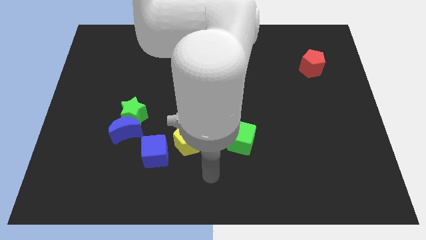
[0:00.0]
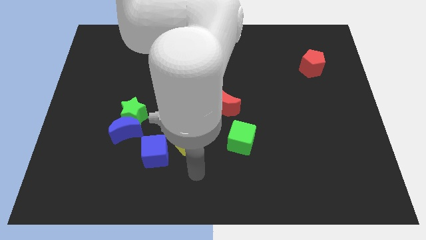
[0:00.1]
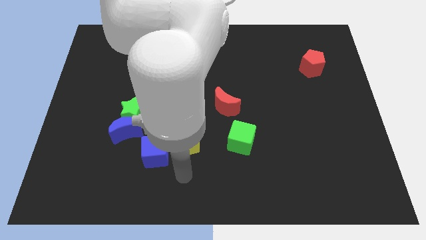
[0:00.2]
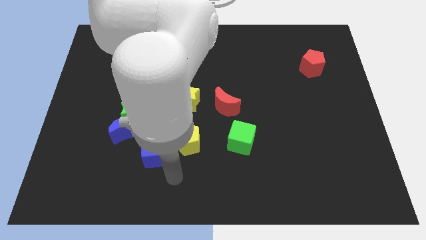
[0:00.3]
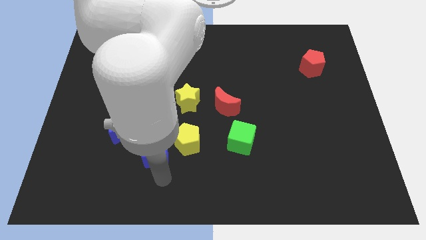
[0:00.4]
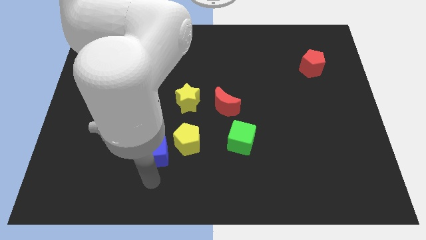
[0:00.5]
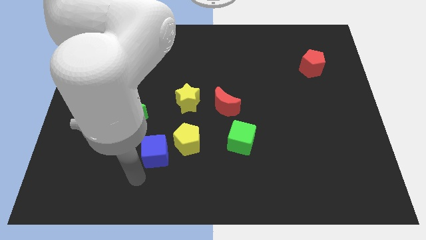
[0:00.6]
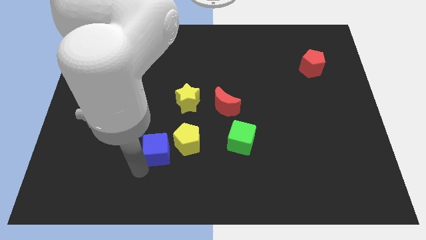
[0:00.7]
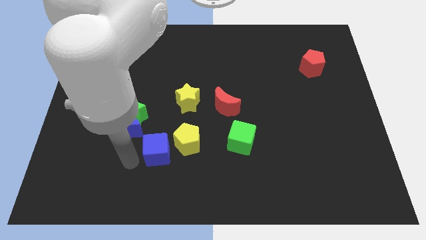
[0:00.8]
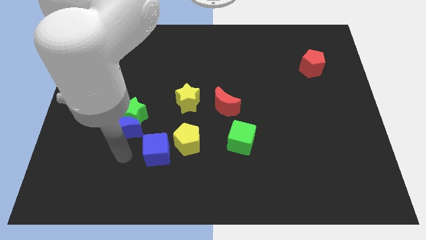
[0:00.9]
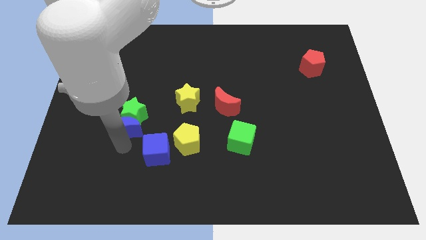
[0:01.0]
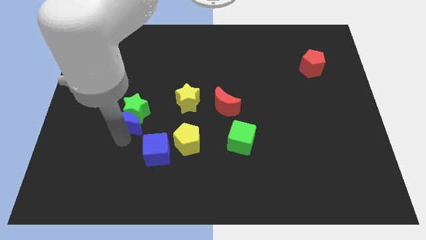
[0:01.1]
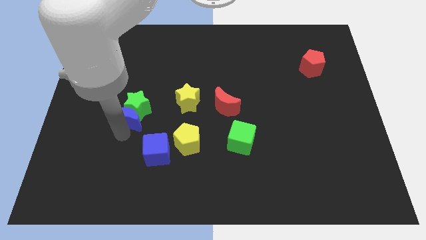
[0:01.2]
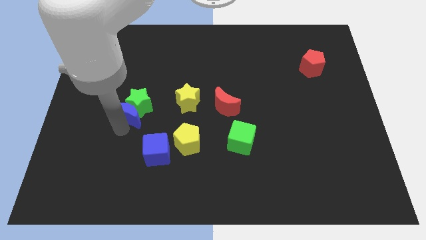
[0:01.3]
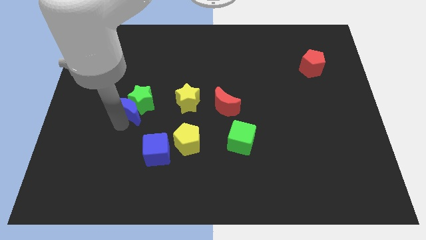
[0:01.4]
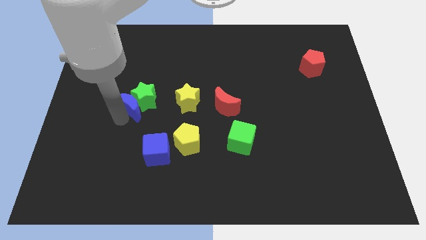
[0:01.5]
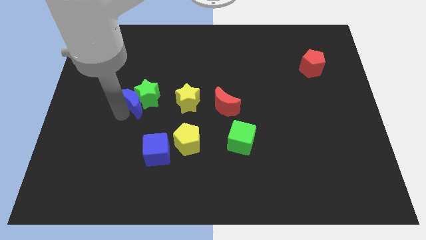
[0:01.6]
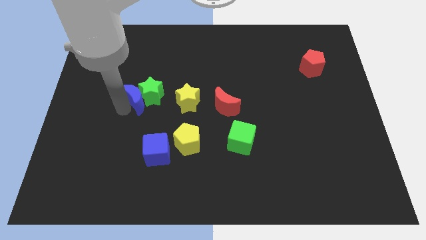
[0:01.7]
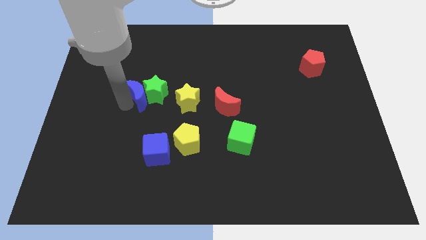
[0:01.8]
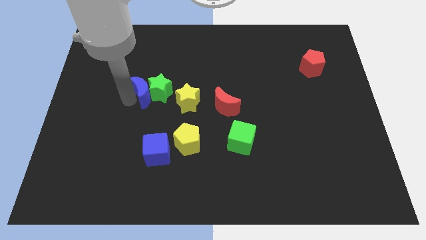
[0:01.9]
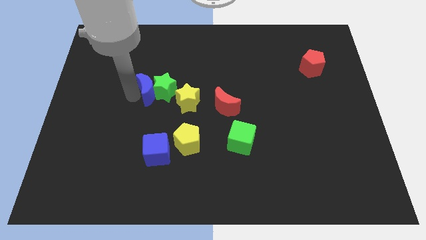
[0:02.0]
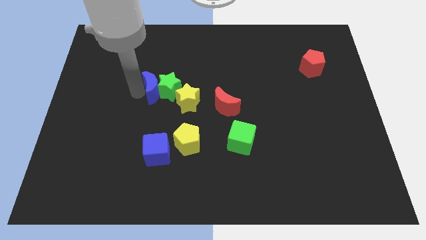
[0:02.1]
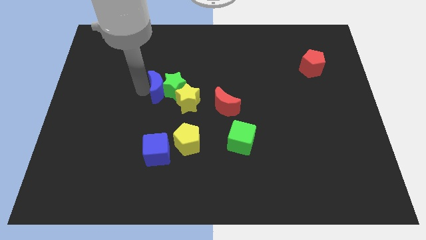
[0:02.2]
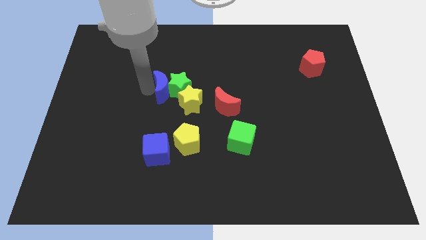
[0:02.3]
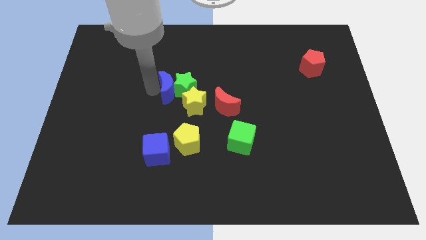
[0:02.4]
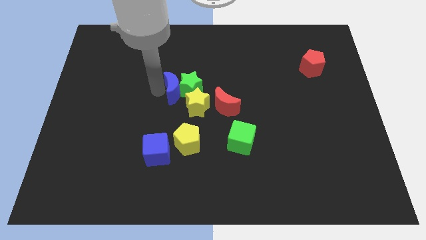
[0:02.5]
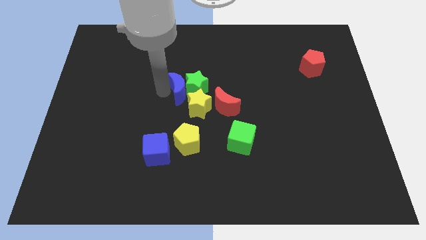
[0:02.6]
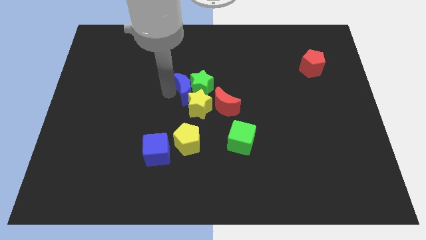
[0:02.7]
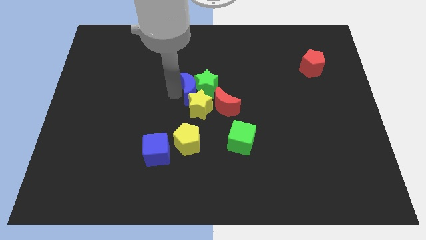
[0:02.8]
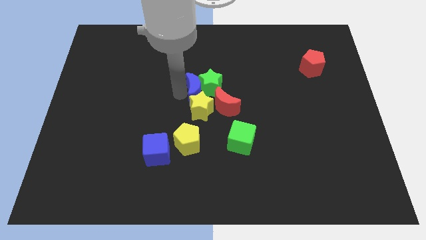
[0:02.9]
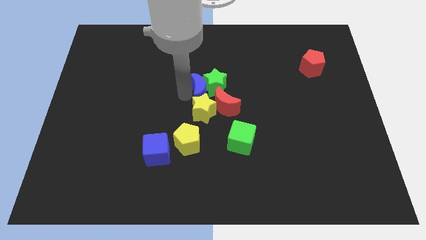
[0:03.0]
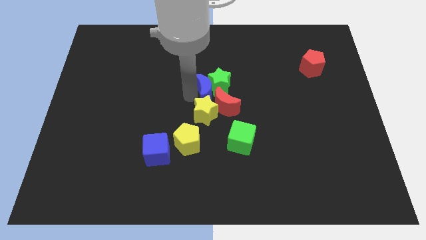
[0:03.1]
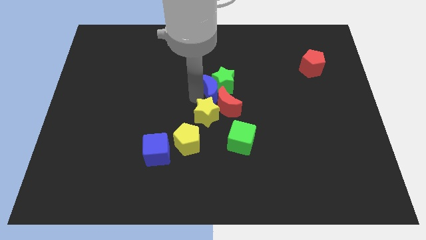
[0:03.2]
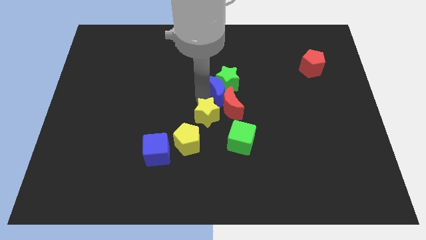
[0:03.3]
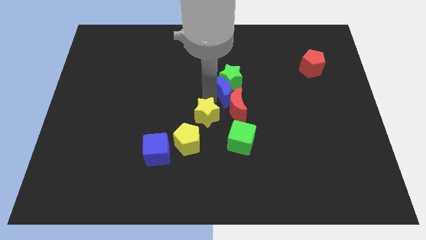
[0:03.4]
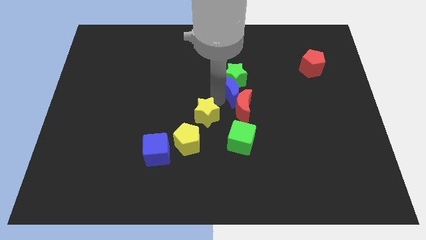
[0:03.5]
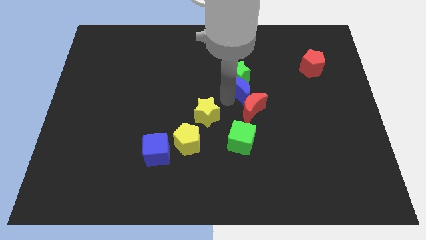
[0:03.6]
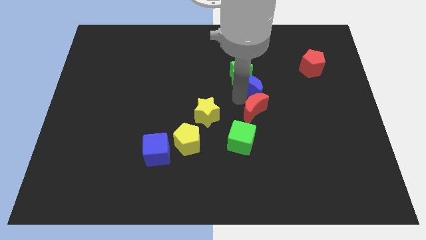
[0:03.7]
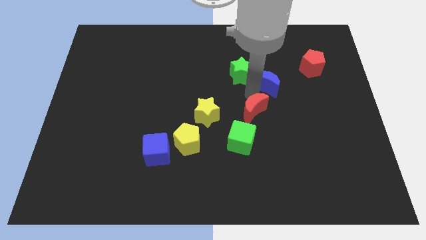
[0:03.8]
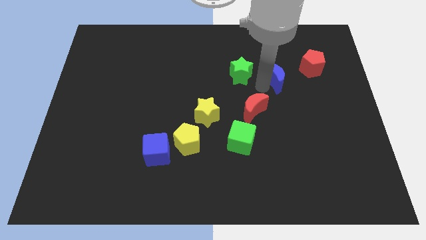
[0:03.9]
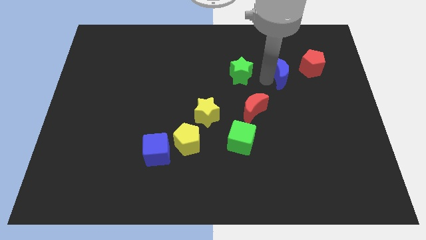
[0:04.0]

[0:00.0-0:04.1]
pull the green star apart from the blue moon

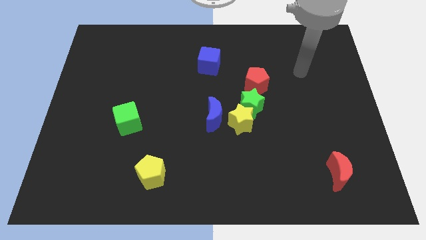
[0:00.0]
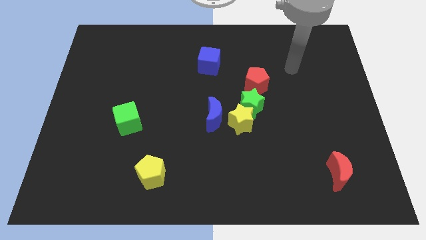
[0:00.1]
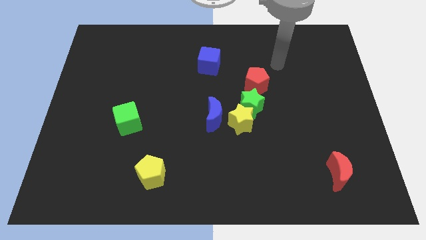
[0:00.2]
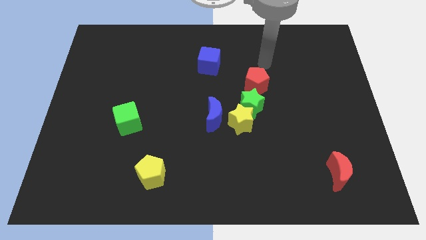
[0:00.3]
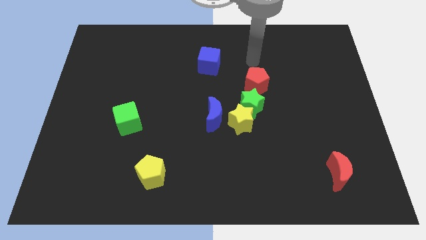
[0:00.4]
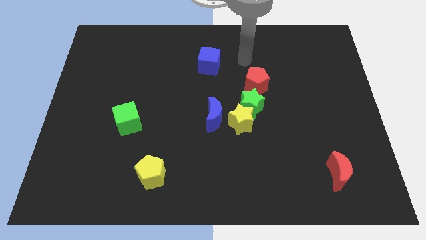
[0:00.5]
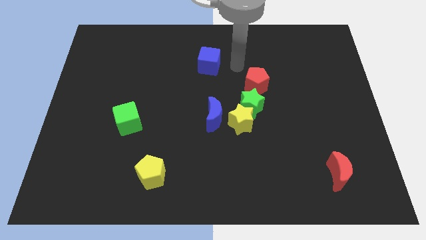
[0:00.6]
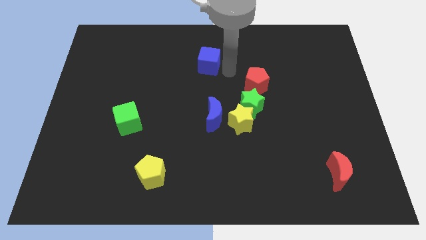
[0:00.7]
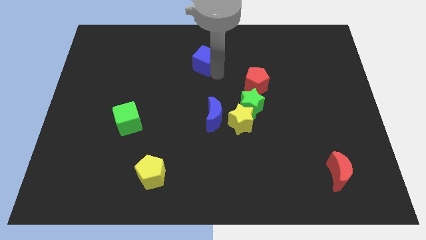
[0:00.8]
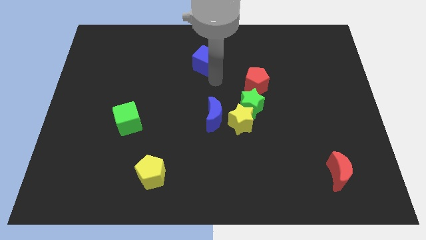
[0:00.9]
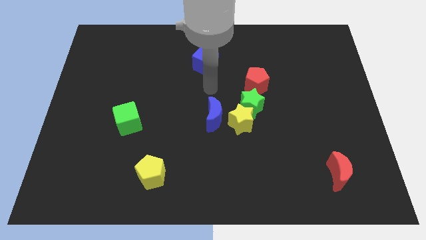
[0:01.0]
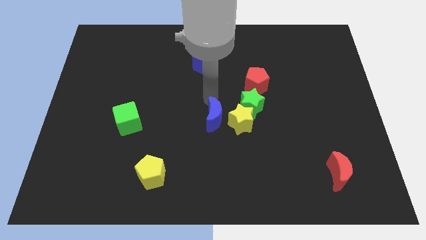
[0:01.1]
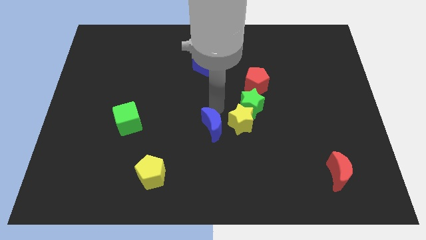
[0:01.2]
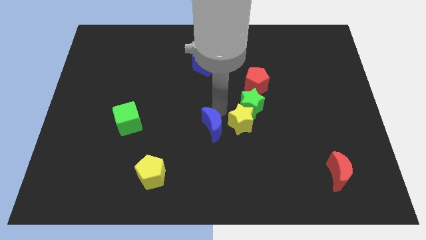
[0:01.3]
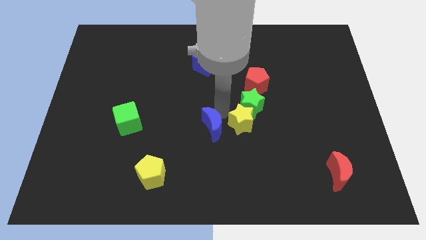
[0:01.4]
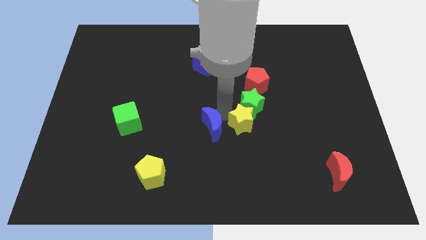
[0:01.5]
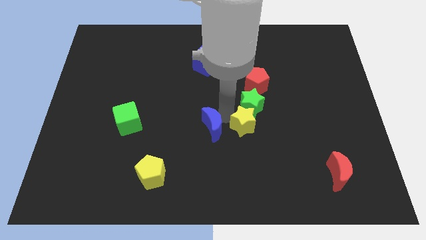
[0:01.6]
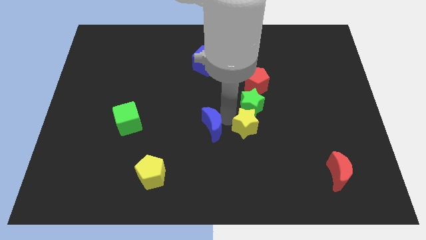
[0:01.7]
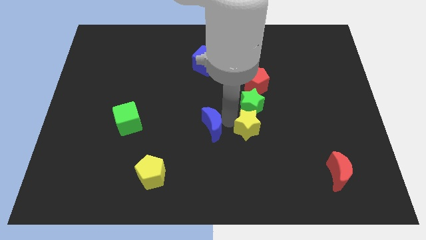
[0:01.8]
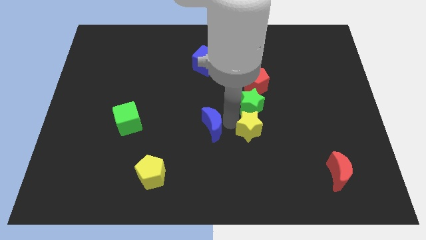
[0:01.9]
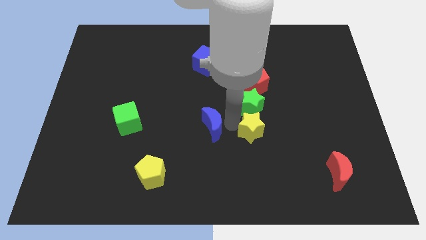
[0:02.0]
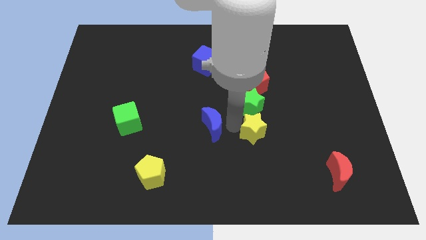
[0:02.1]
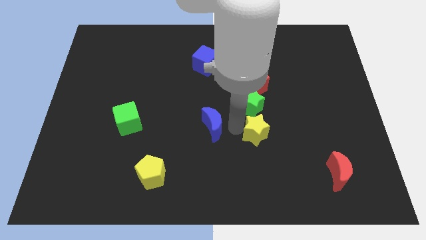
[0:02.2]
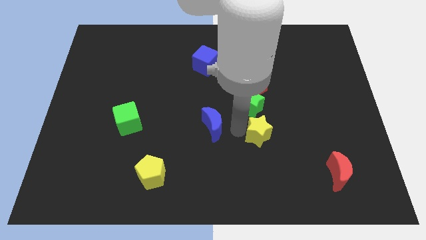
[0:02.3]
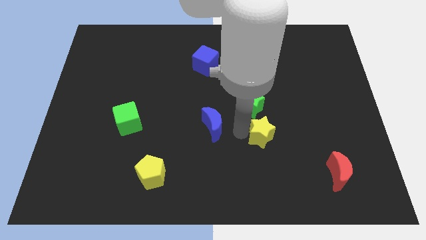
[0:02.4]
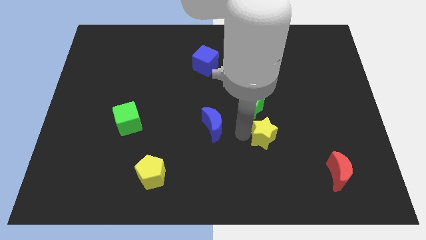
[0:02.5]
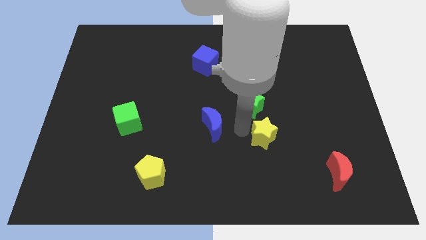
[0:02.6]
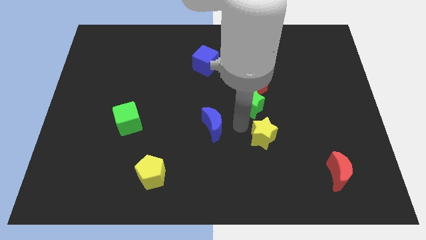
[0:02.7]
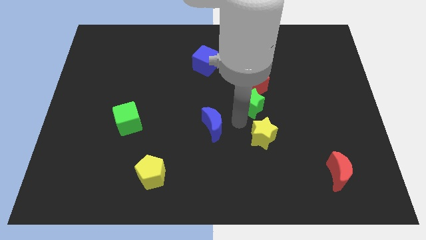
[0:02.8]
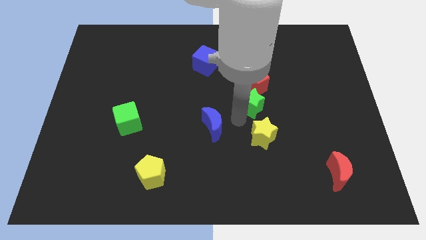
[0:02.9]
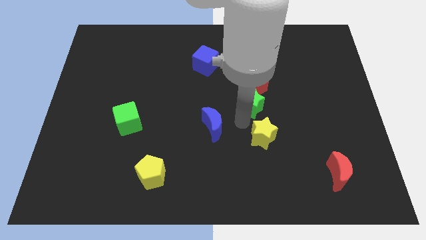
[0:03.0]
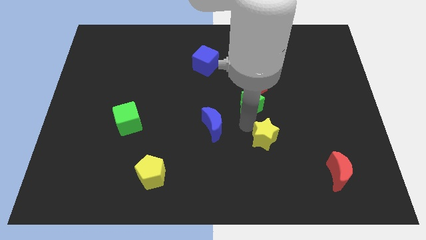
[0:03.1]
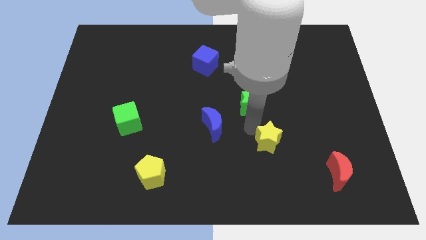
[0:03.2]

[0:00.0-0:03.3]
move the yellow star away from the green star and blue moon

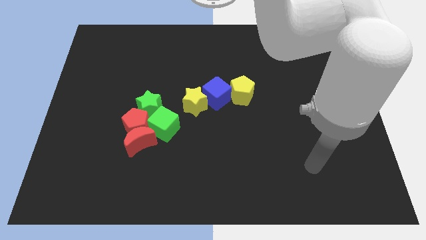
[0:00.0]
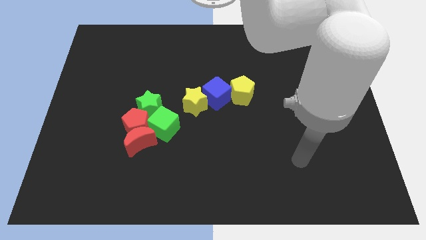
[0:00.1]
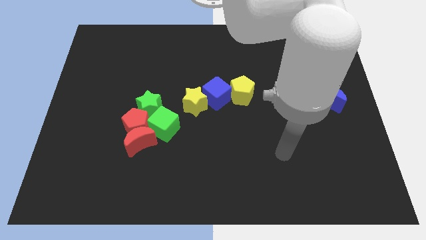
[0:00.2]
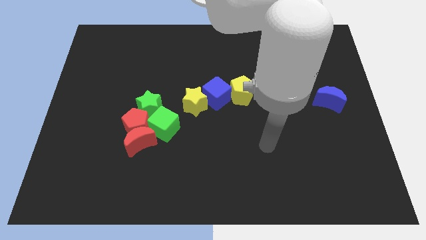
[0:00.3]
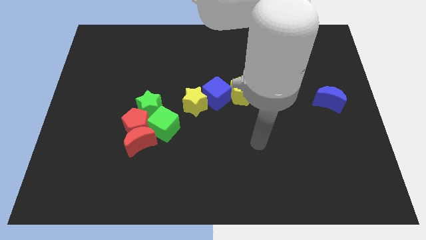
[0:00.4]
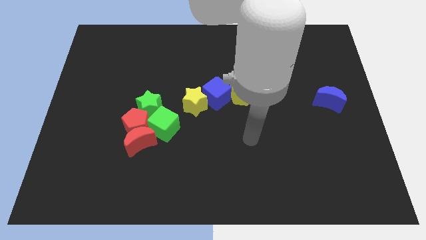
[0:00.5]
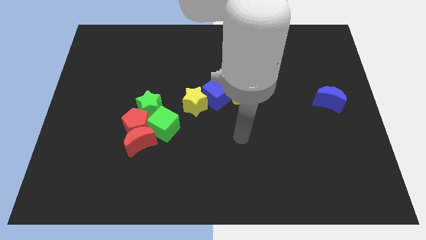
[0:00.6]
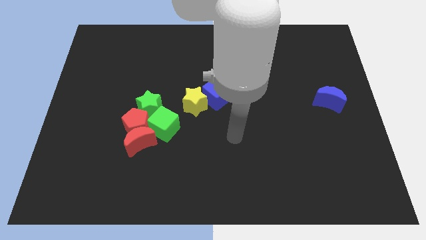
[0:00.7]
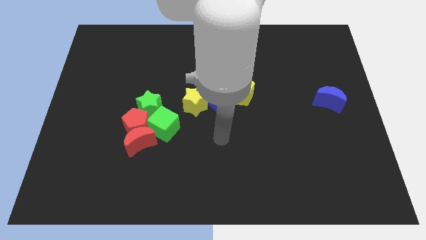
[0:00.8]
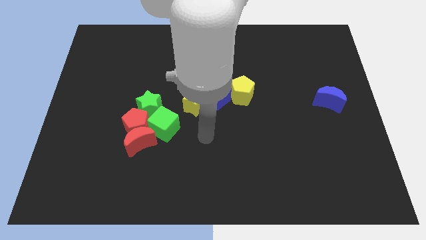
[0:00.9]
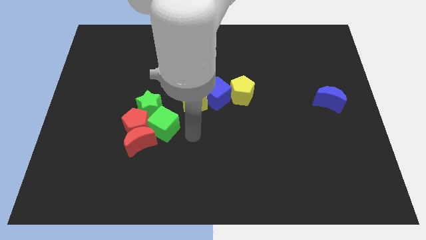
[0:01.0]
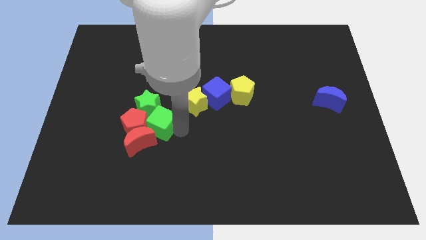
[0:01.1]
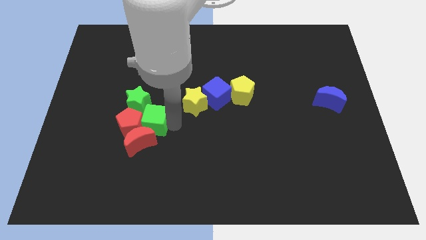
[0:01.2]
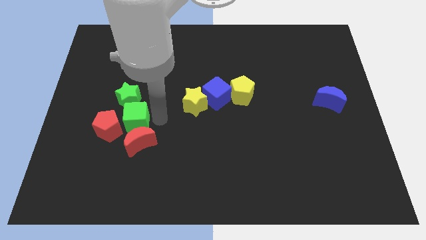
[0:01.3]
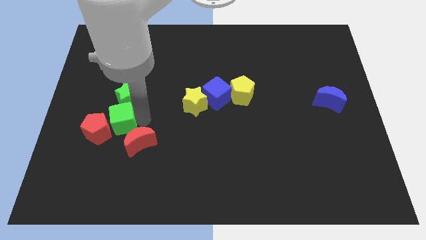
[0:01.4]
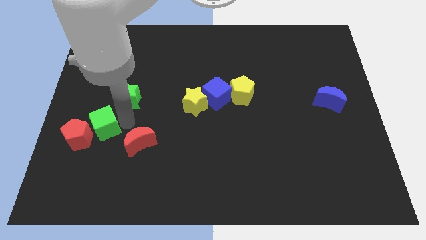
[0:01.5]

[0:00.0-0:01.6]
separate the red pentagon from the red moon, green star, and green cube

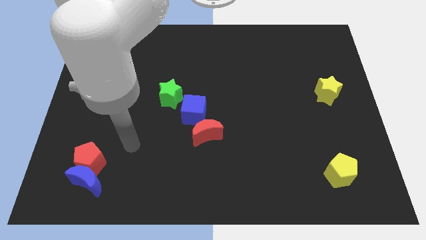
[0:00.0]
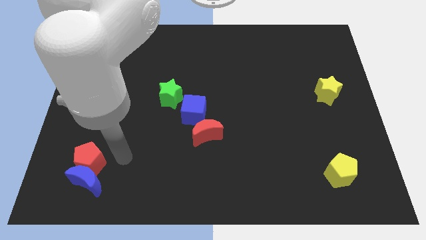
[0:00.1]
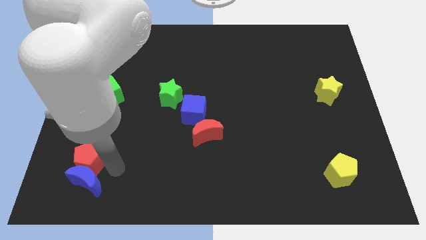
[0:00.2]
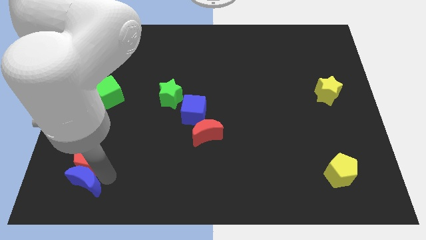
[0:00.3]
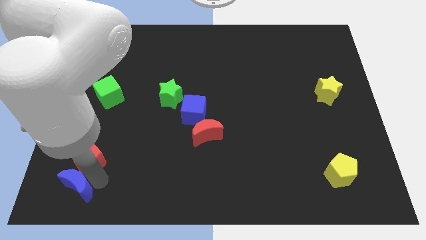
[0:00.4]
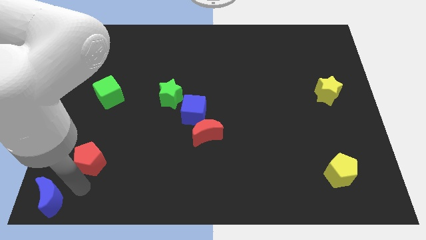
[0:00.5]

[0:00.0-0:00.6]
pull the red pentagon apart from the blue moon
